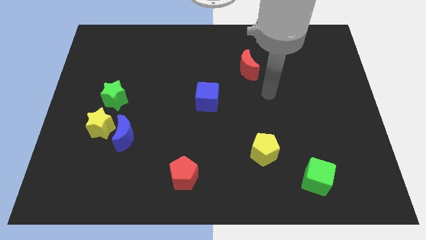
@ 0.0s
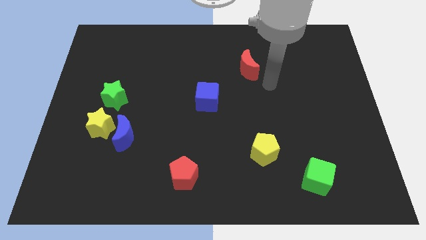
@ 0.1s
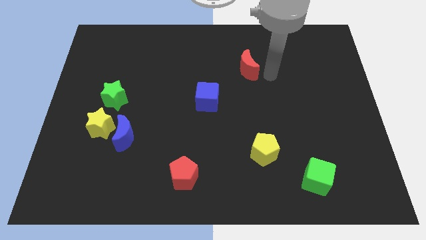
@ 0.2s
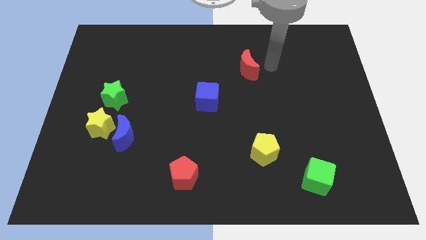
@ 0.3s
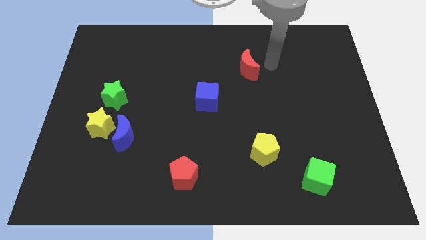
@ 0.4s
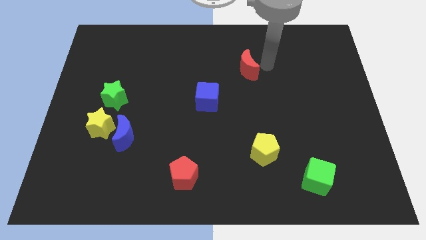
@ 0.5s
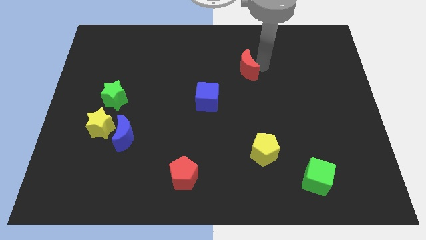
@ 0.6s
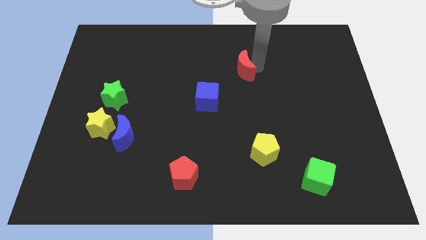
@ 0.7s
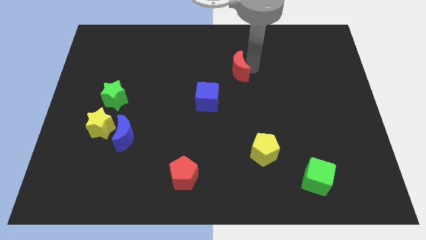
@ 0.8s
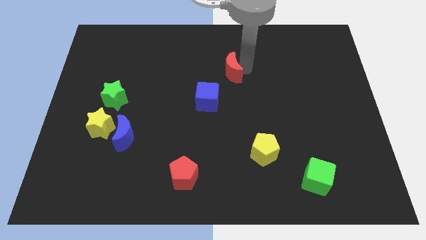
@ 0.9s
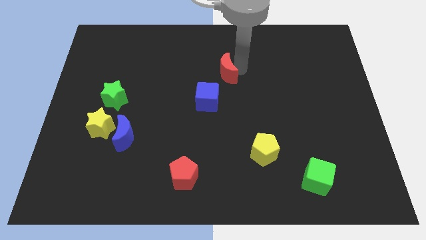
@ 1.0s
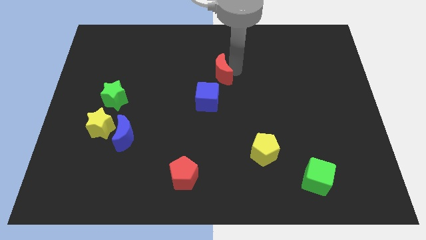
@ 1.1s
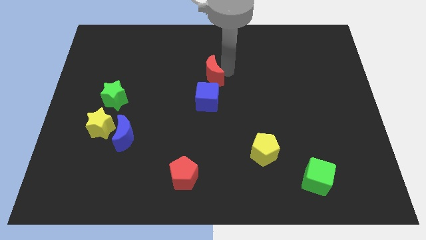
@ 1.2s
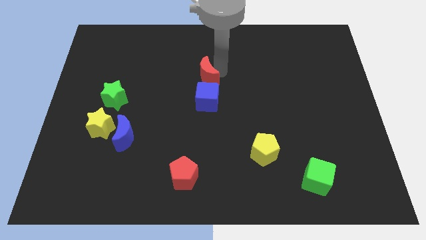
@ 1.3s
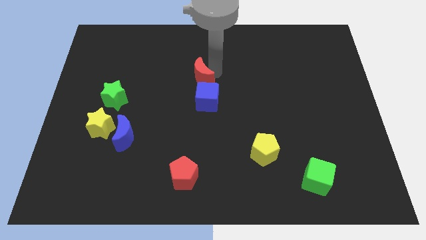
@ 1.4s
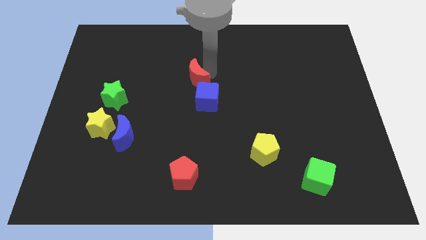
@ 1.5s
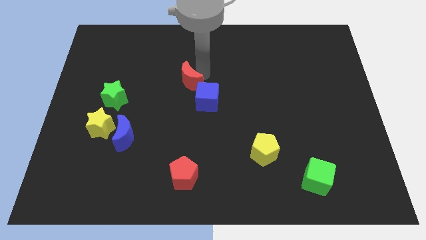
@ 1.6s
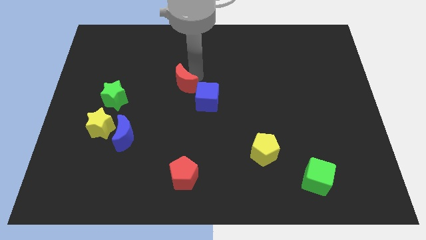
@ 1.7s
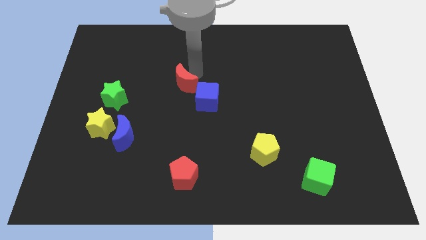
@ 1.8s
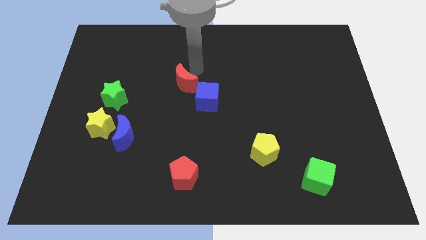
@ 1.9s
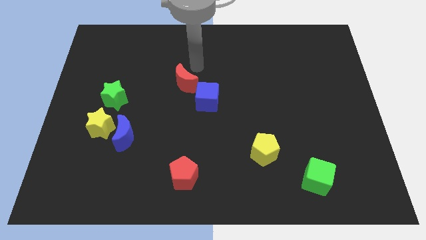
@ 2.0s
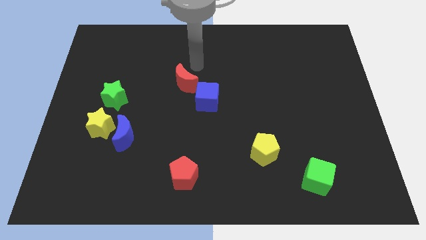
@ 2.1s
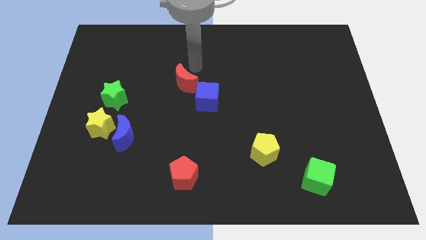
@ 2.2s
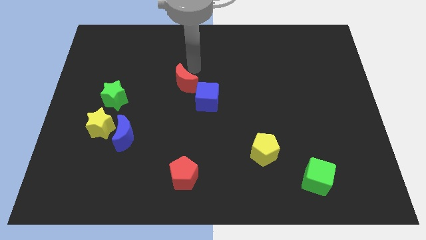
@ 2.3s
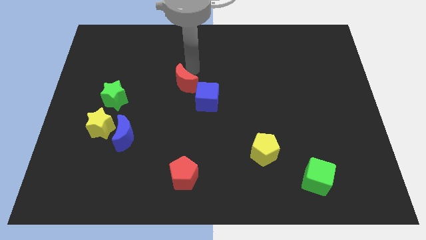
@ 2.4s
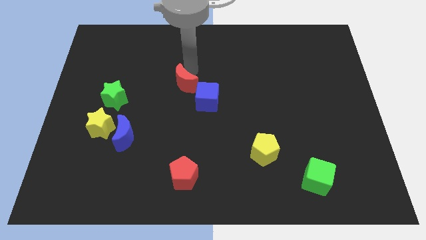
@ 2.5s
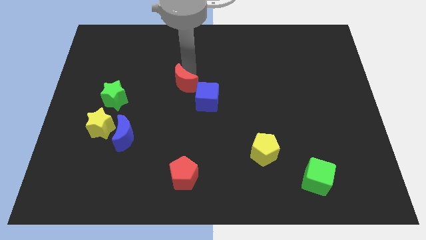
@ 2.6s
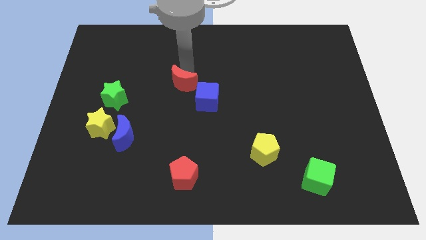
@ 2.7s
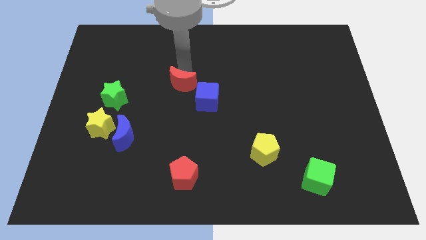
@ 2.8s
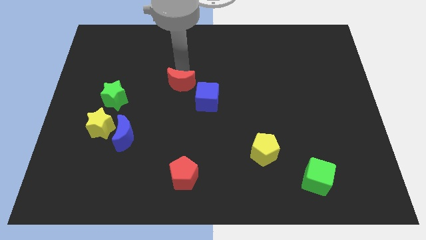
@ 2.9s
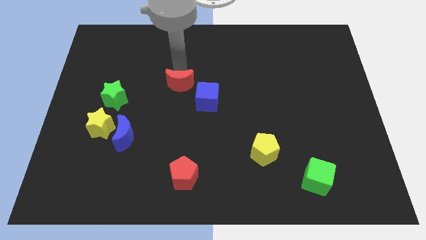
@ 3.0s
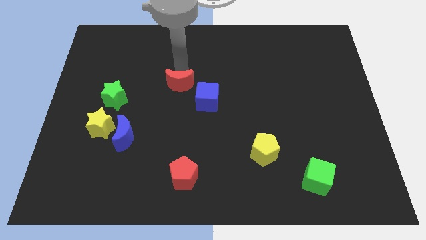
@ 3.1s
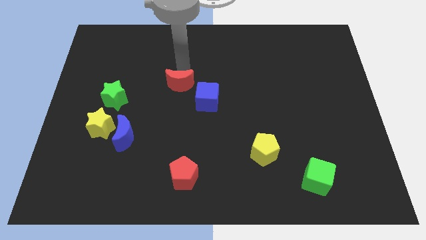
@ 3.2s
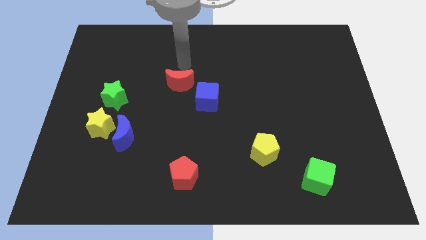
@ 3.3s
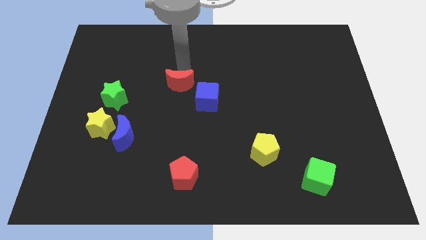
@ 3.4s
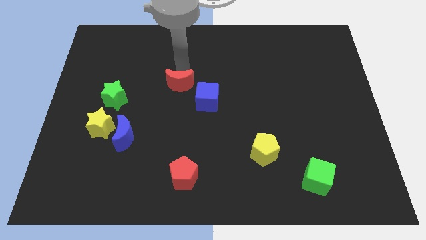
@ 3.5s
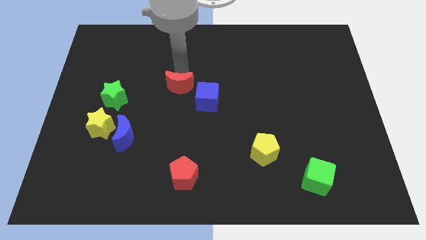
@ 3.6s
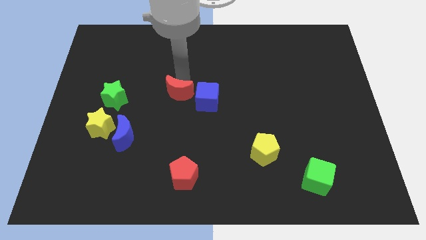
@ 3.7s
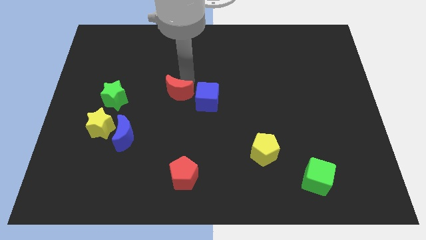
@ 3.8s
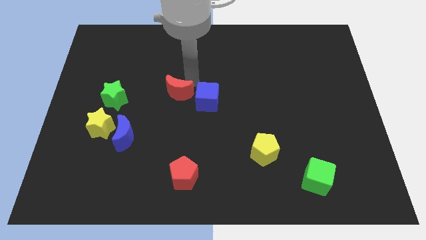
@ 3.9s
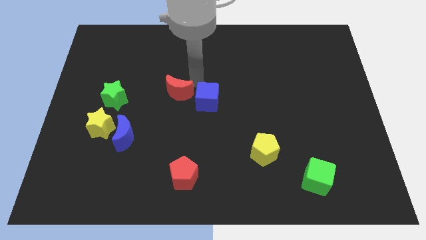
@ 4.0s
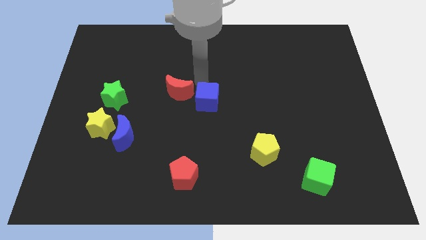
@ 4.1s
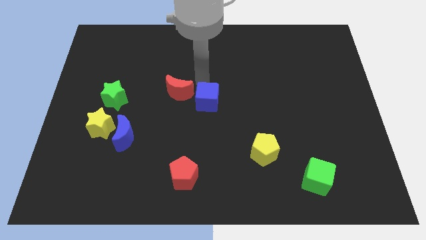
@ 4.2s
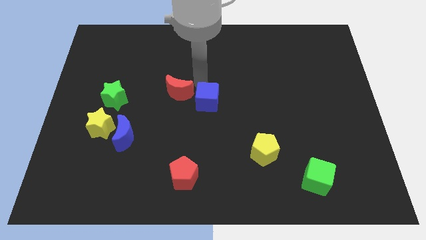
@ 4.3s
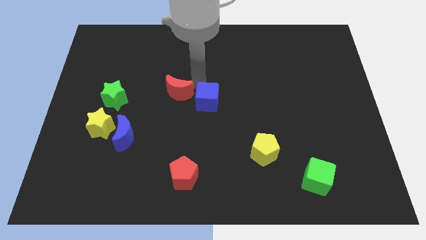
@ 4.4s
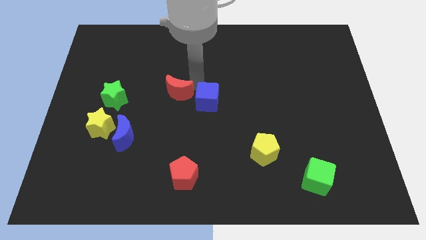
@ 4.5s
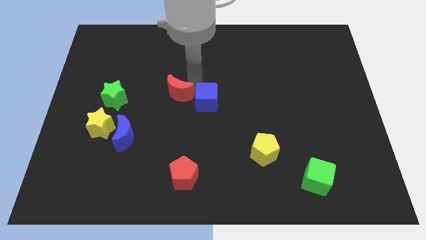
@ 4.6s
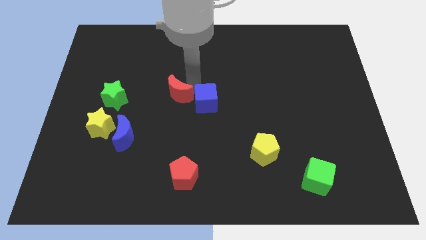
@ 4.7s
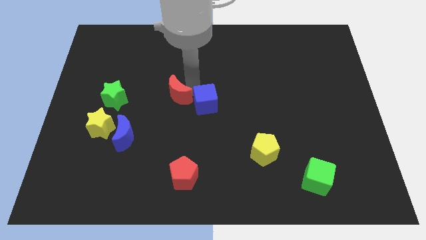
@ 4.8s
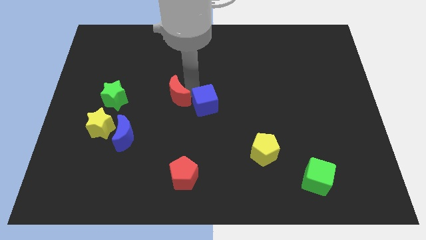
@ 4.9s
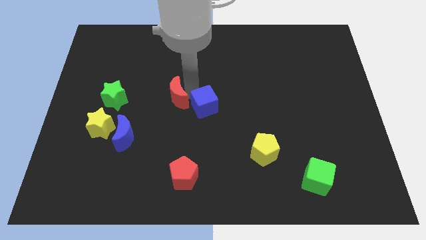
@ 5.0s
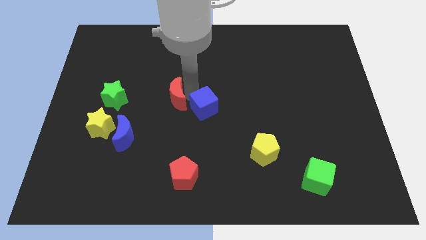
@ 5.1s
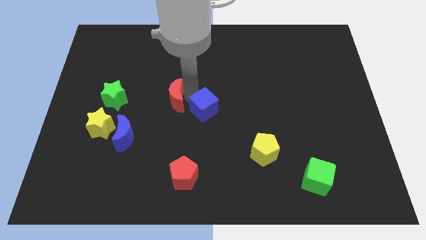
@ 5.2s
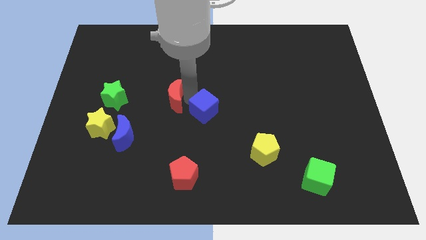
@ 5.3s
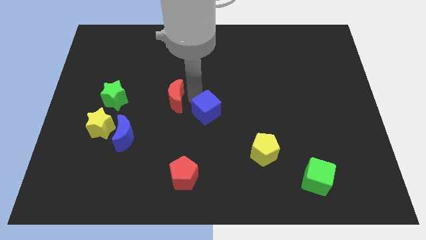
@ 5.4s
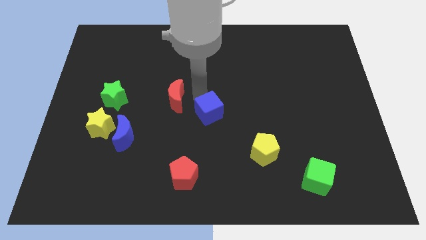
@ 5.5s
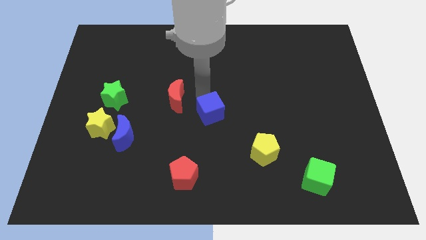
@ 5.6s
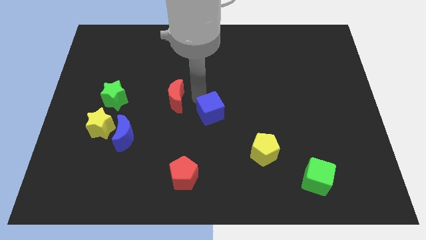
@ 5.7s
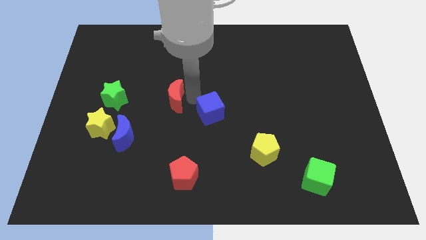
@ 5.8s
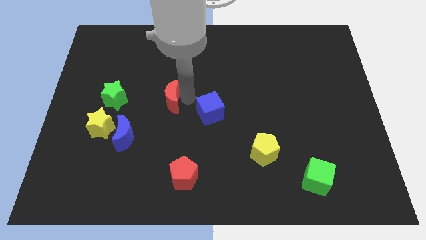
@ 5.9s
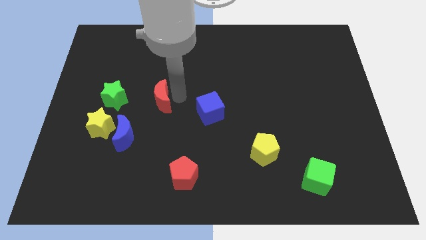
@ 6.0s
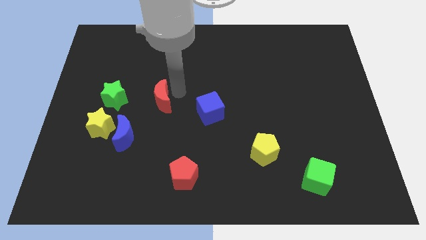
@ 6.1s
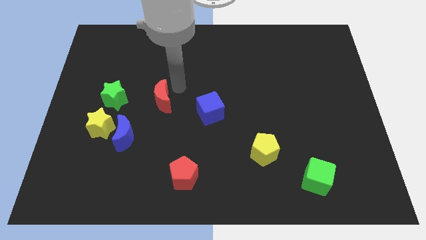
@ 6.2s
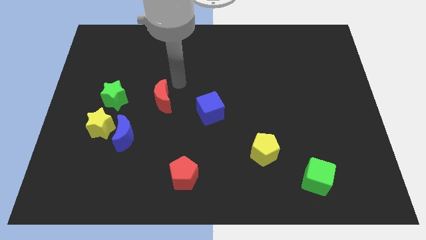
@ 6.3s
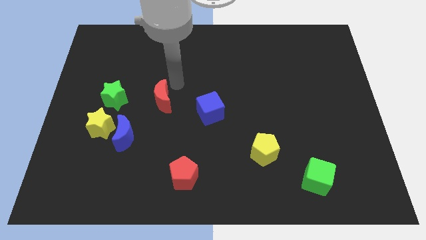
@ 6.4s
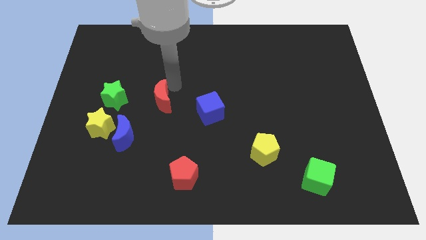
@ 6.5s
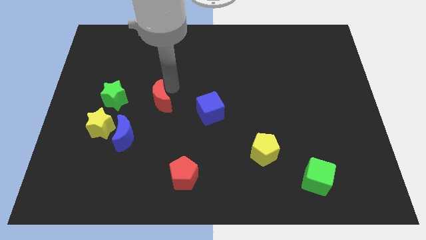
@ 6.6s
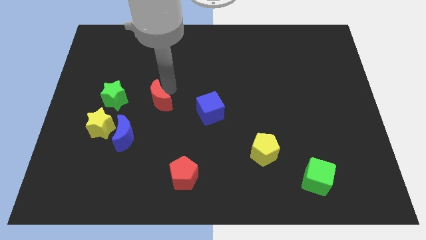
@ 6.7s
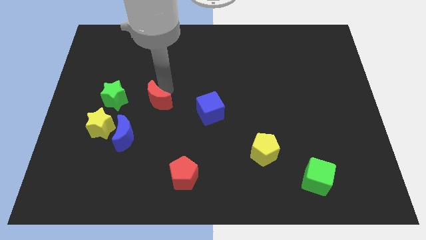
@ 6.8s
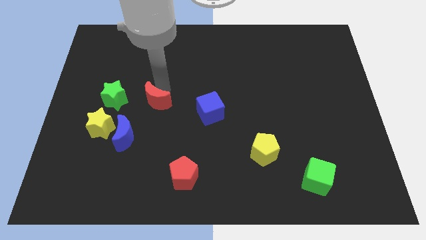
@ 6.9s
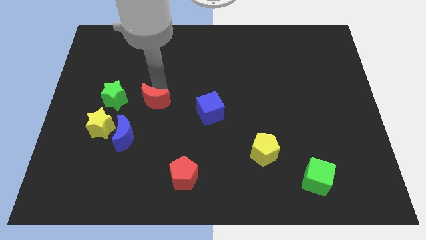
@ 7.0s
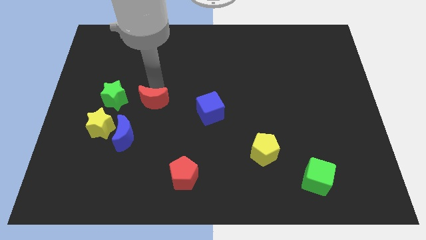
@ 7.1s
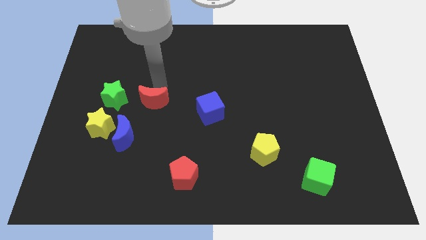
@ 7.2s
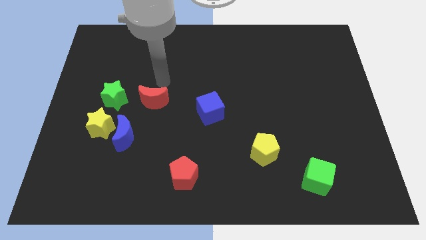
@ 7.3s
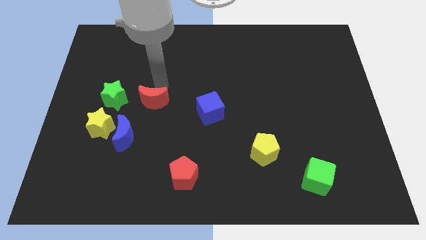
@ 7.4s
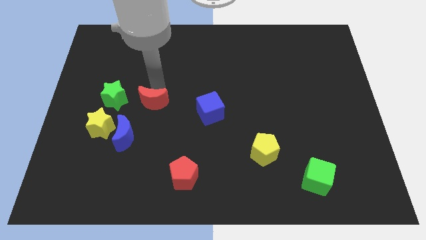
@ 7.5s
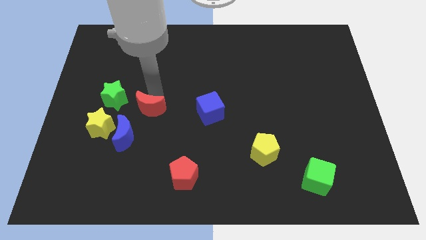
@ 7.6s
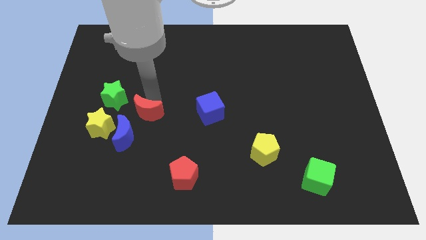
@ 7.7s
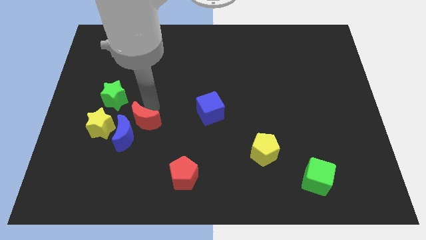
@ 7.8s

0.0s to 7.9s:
push the red moon next to the blue moon
